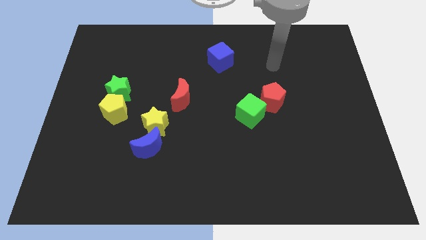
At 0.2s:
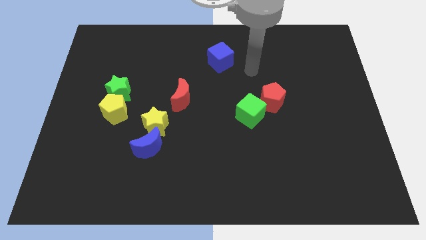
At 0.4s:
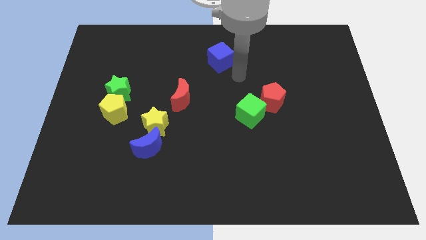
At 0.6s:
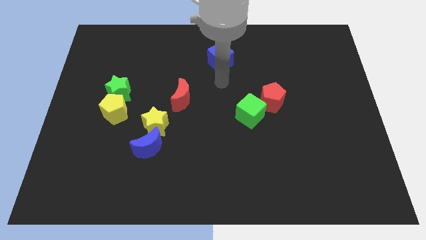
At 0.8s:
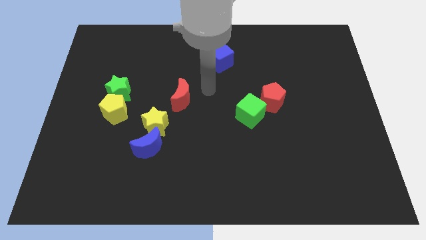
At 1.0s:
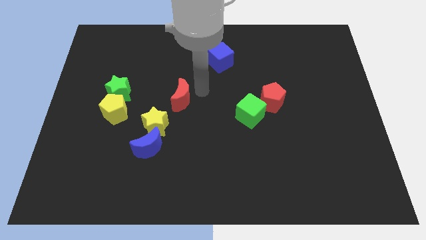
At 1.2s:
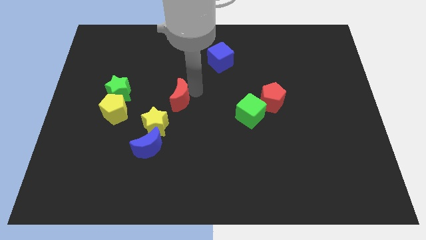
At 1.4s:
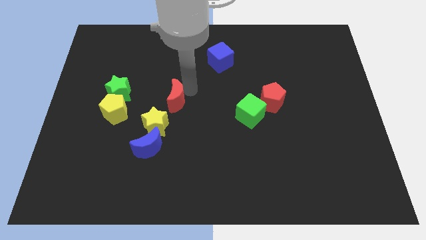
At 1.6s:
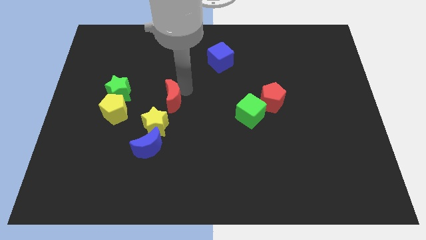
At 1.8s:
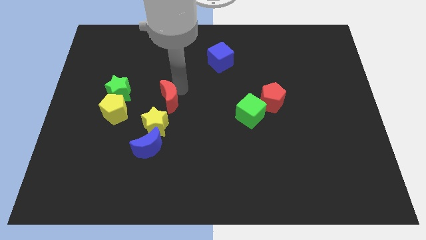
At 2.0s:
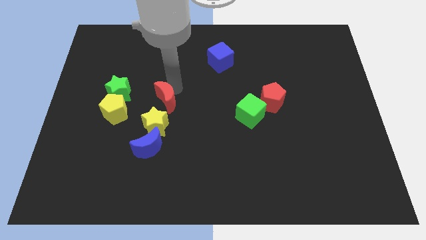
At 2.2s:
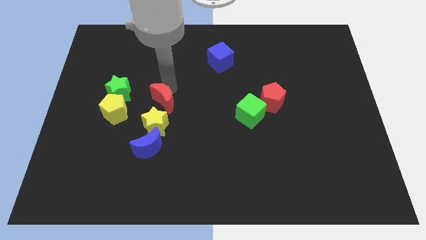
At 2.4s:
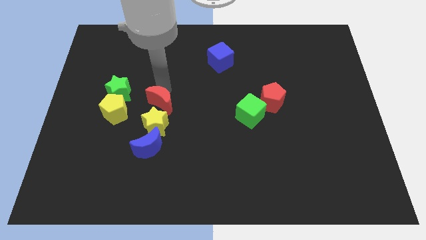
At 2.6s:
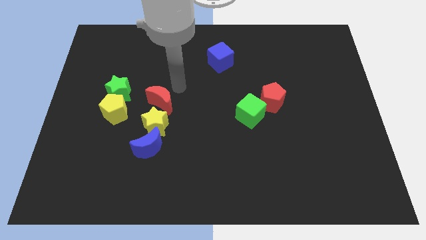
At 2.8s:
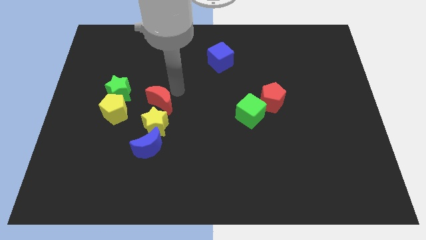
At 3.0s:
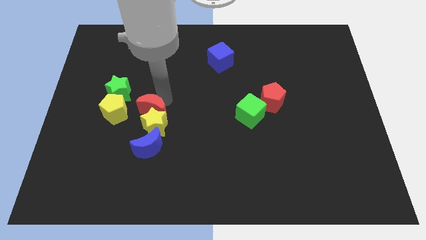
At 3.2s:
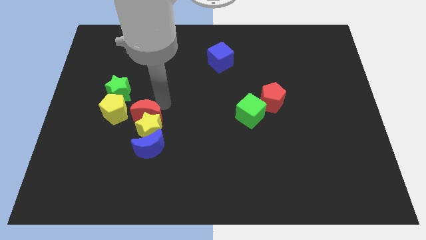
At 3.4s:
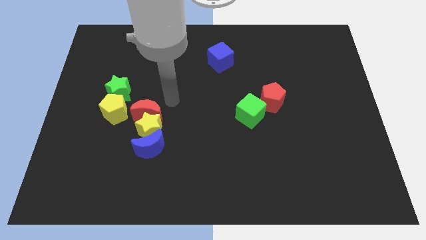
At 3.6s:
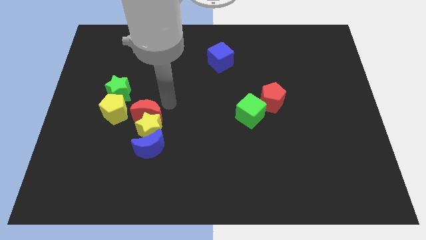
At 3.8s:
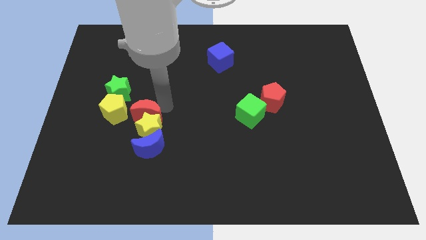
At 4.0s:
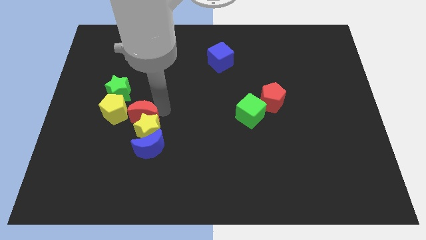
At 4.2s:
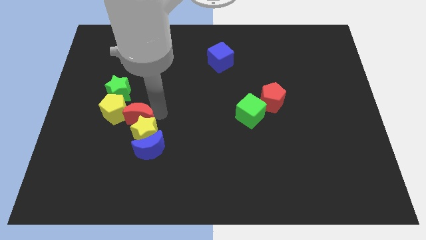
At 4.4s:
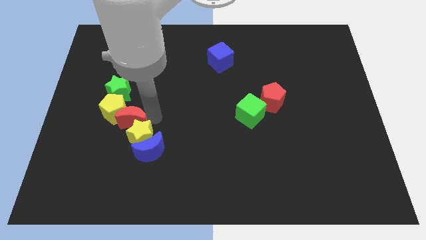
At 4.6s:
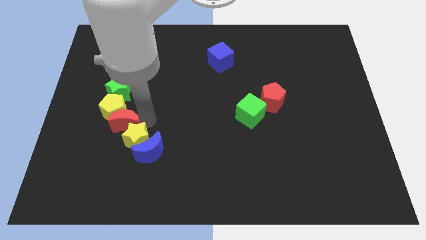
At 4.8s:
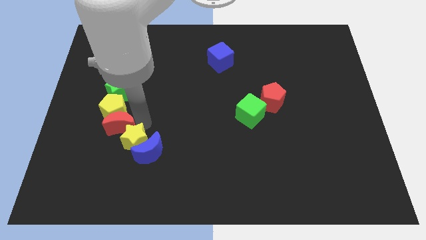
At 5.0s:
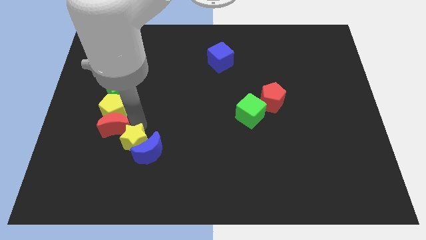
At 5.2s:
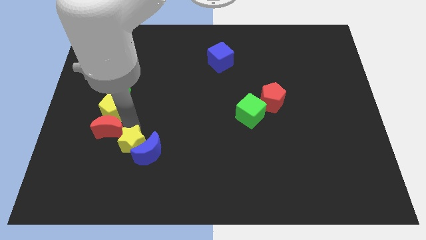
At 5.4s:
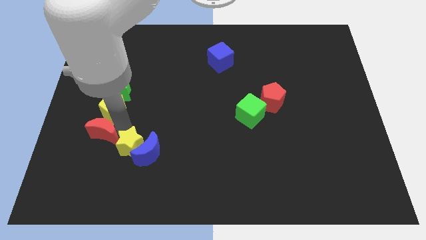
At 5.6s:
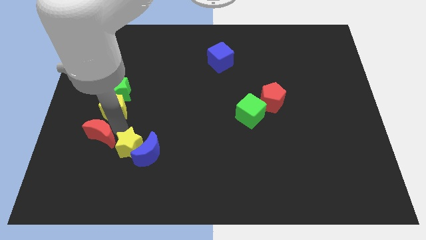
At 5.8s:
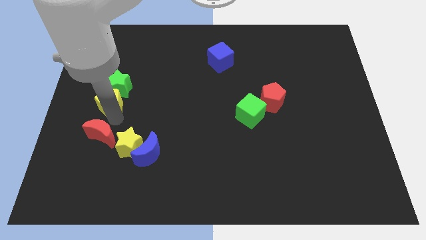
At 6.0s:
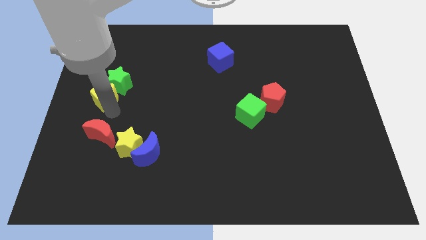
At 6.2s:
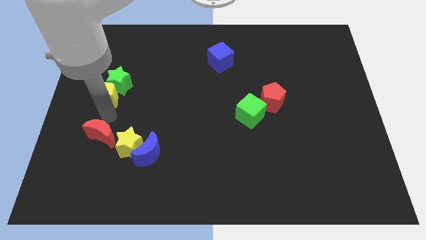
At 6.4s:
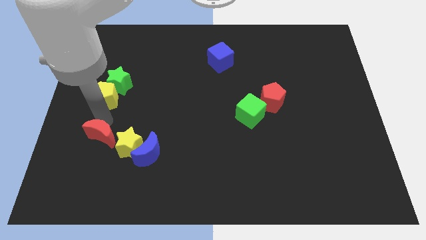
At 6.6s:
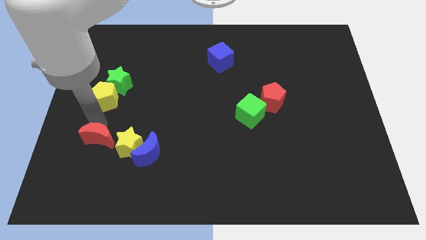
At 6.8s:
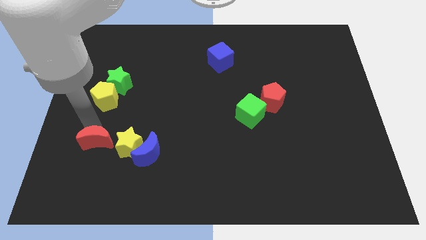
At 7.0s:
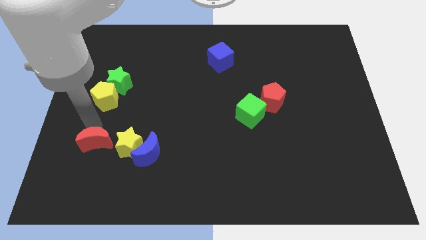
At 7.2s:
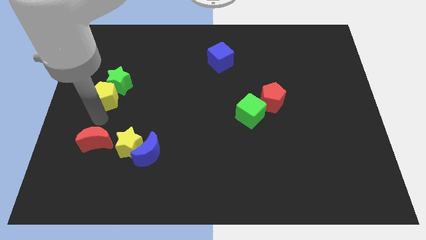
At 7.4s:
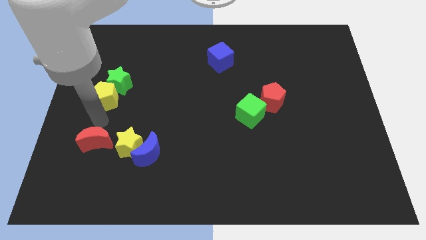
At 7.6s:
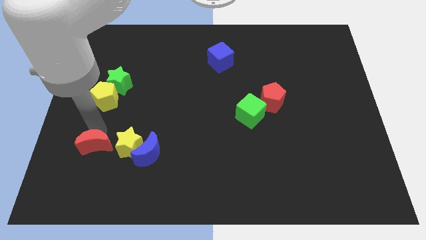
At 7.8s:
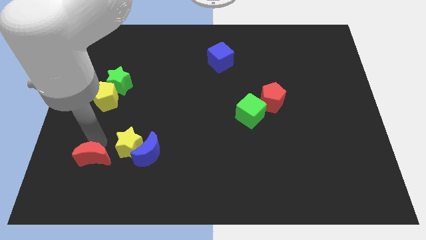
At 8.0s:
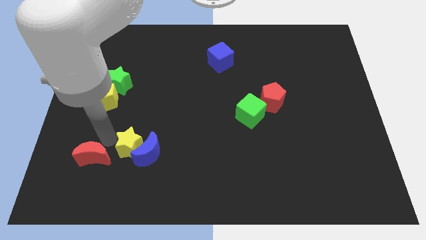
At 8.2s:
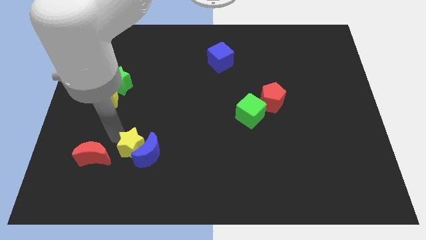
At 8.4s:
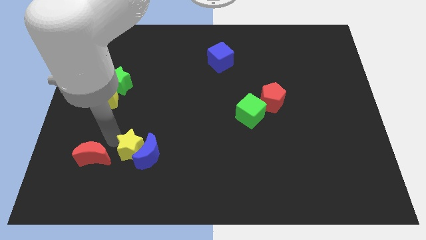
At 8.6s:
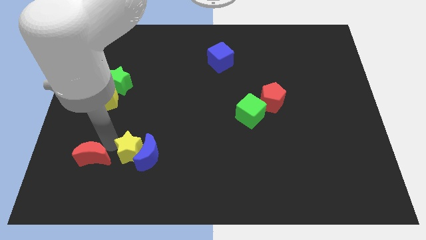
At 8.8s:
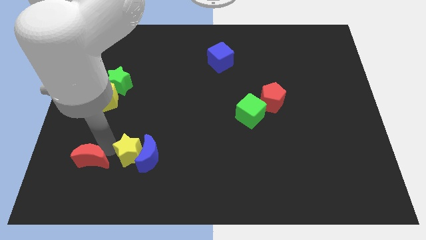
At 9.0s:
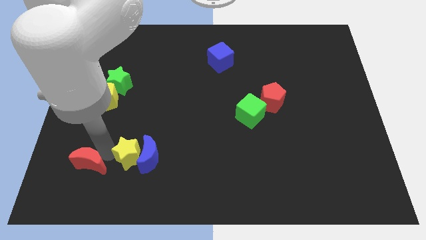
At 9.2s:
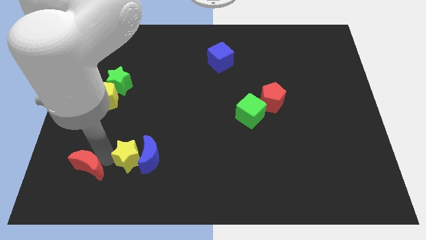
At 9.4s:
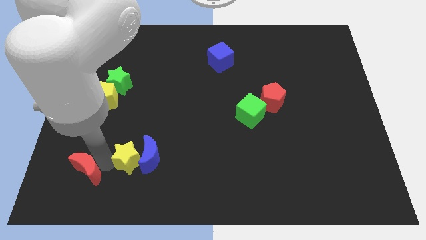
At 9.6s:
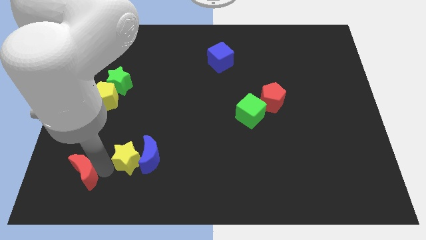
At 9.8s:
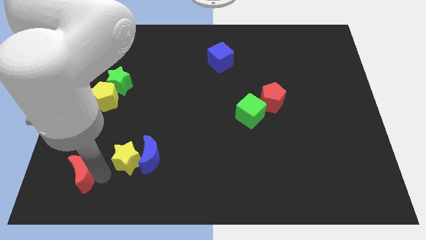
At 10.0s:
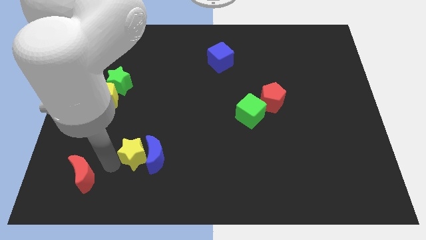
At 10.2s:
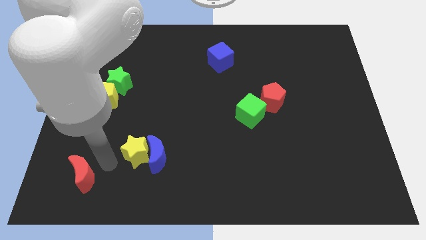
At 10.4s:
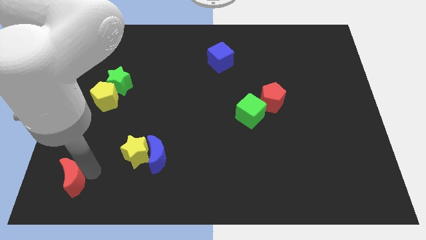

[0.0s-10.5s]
move the red moon to the bottom left corner

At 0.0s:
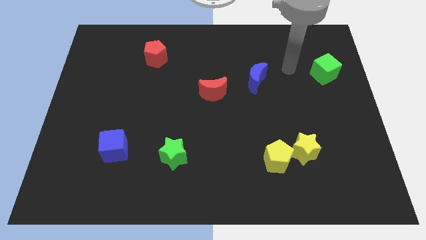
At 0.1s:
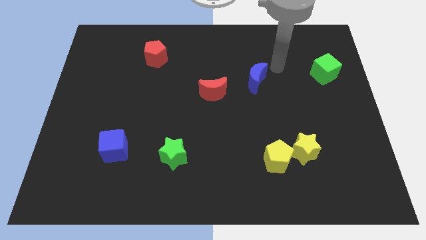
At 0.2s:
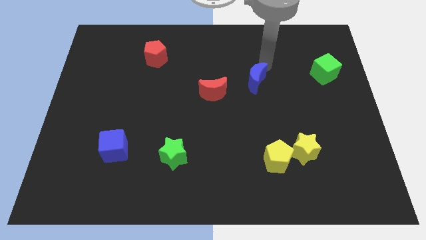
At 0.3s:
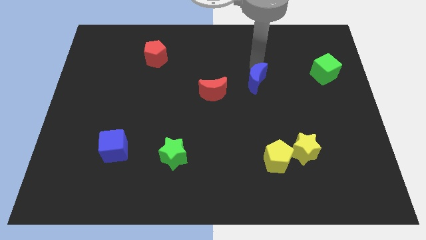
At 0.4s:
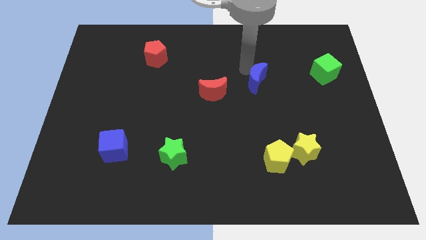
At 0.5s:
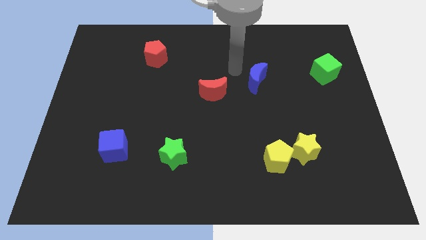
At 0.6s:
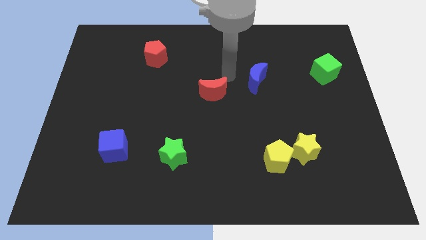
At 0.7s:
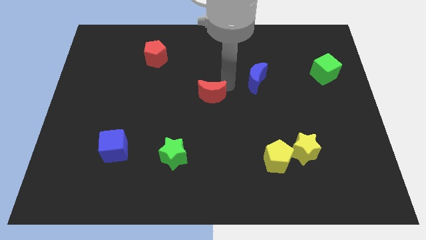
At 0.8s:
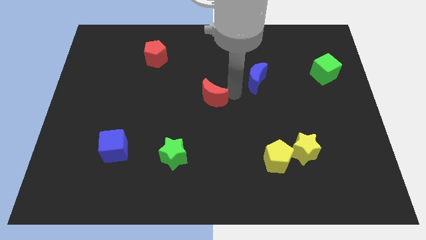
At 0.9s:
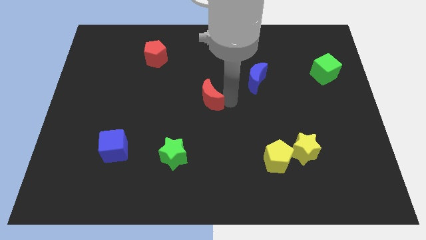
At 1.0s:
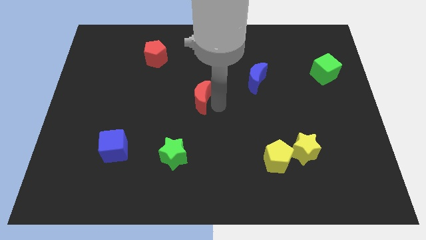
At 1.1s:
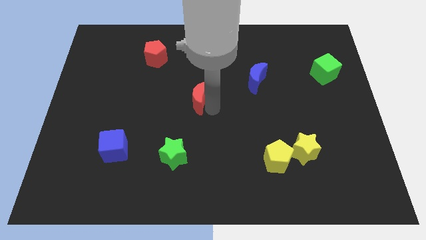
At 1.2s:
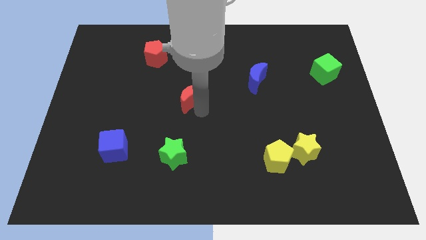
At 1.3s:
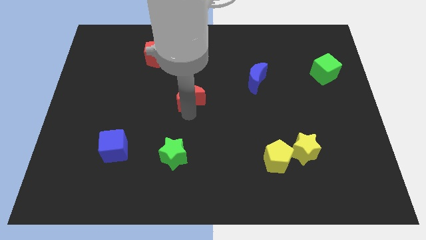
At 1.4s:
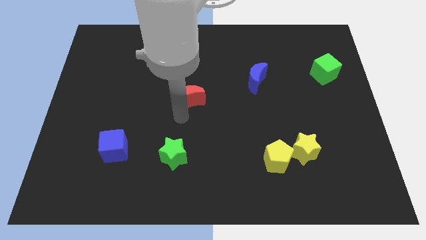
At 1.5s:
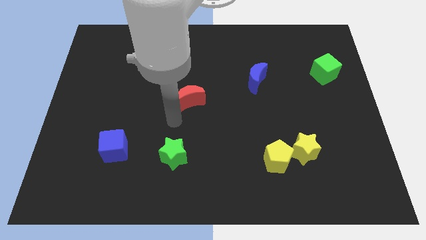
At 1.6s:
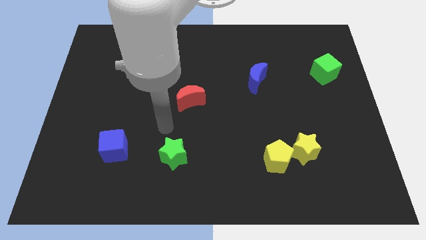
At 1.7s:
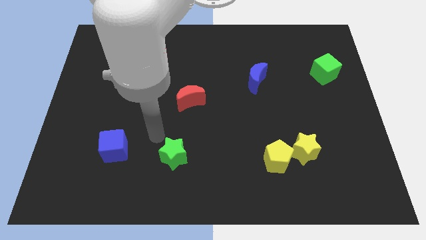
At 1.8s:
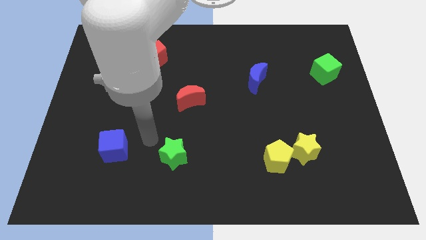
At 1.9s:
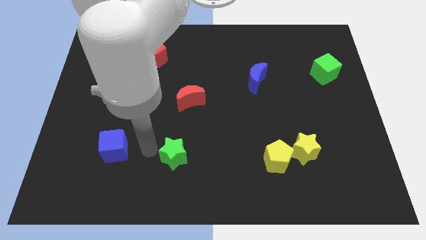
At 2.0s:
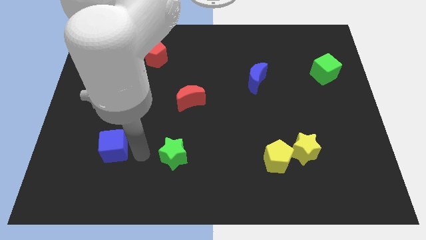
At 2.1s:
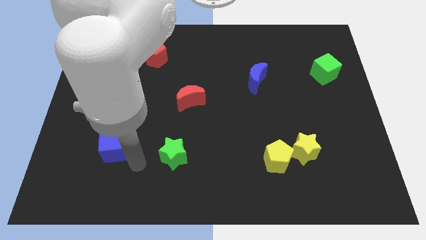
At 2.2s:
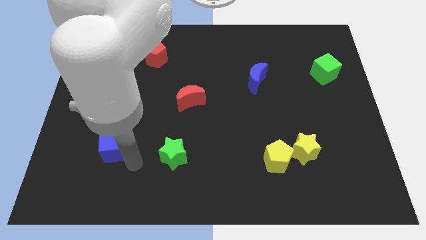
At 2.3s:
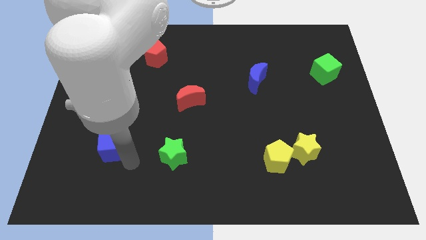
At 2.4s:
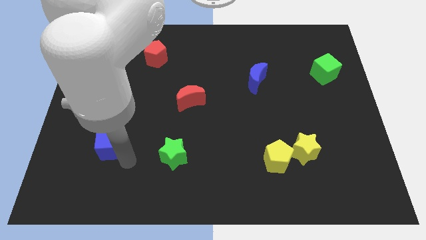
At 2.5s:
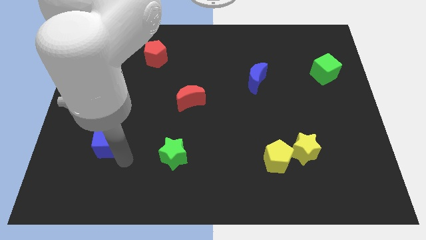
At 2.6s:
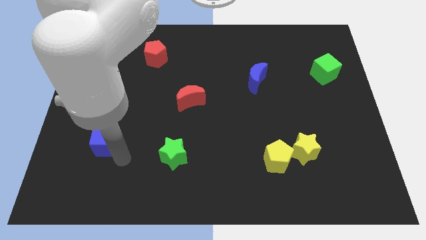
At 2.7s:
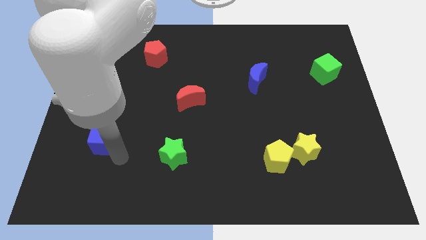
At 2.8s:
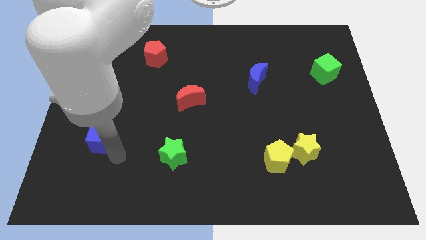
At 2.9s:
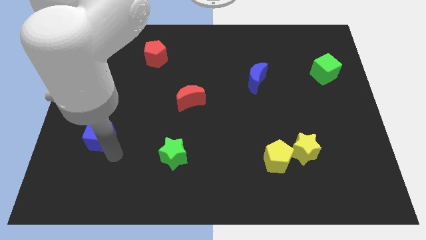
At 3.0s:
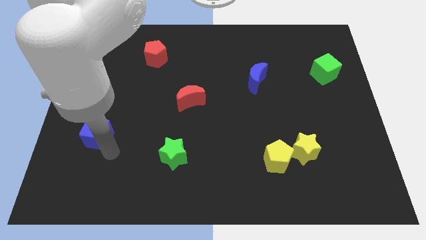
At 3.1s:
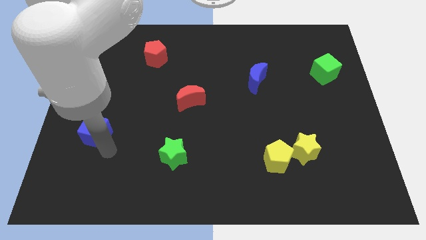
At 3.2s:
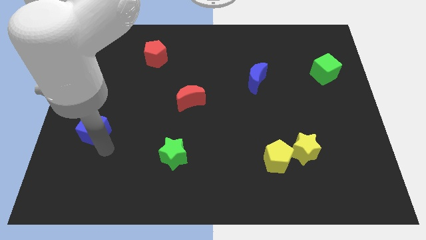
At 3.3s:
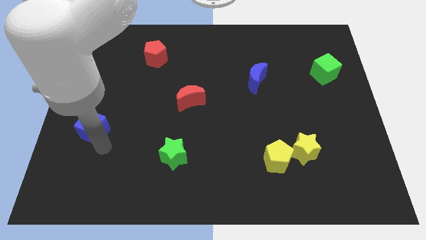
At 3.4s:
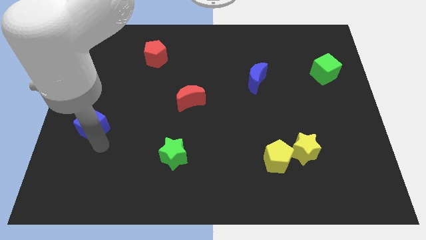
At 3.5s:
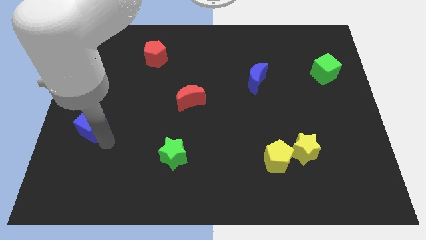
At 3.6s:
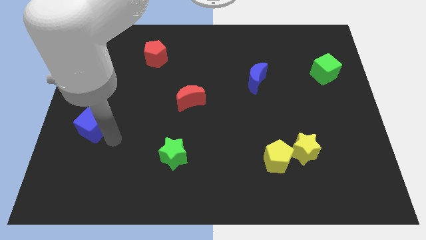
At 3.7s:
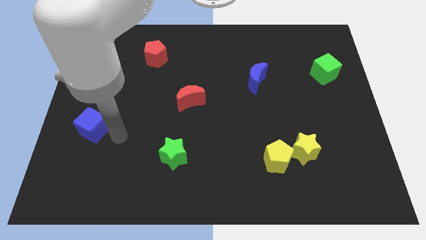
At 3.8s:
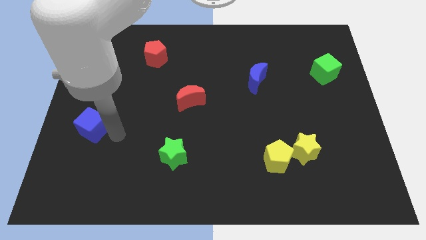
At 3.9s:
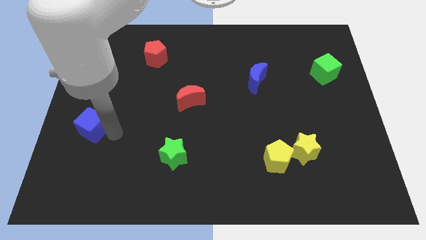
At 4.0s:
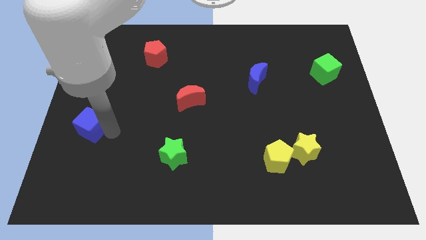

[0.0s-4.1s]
slide the blue cube to the left side of the board
